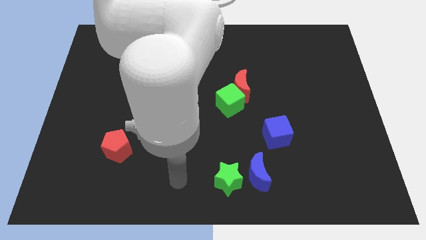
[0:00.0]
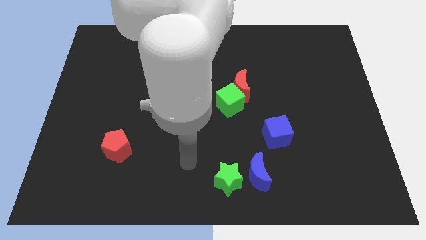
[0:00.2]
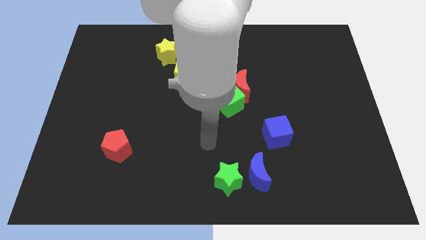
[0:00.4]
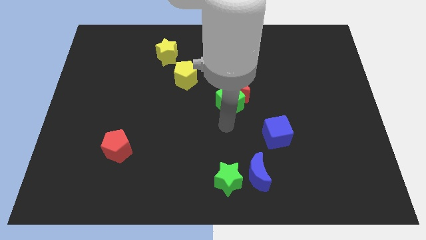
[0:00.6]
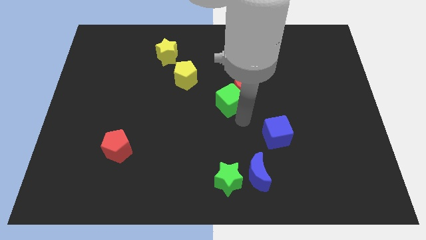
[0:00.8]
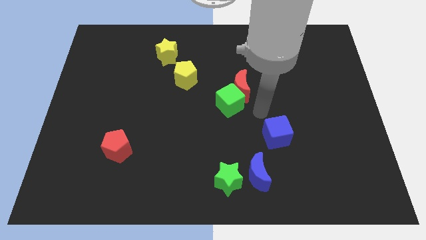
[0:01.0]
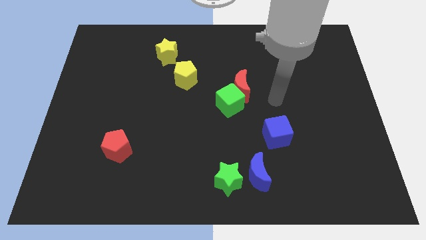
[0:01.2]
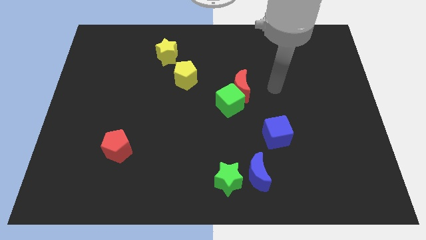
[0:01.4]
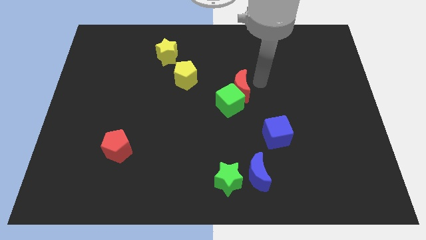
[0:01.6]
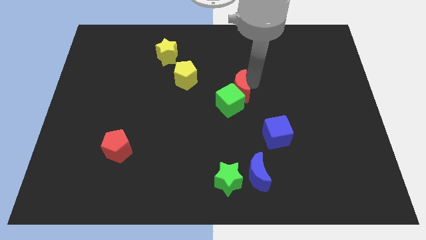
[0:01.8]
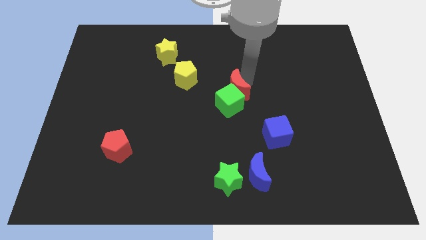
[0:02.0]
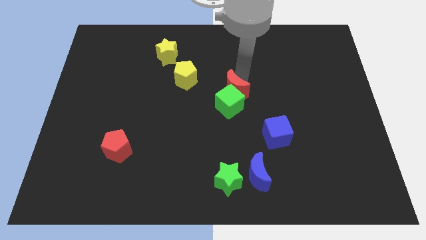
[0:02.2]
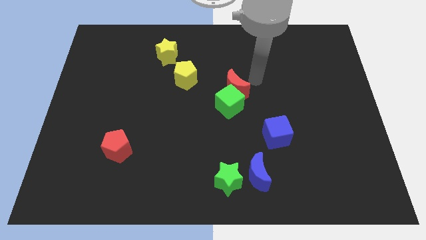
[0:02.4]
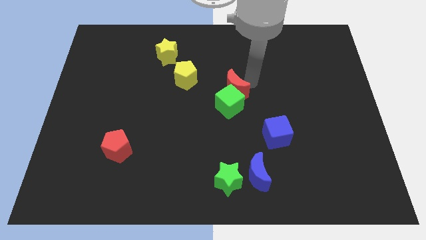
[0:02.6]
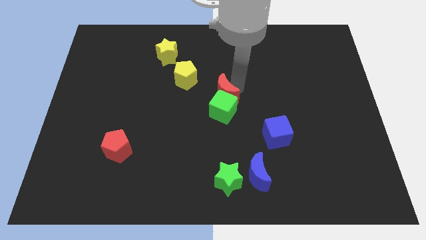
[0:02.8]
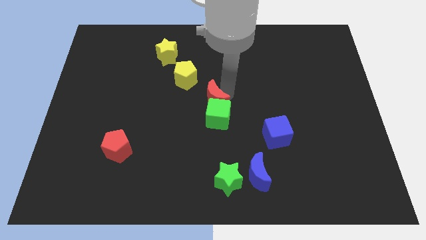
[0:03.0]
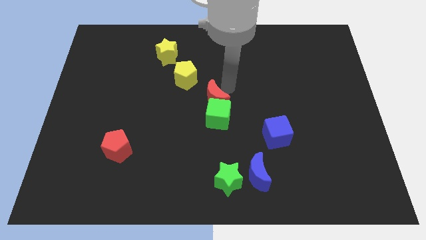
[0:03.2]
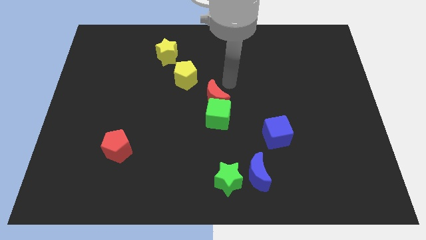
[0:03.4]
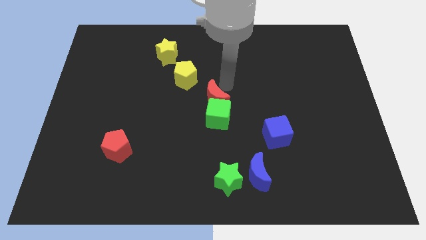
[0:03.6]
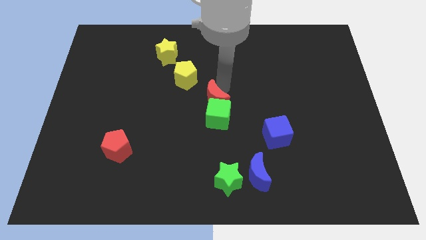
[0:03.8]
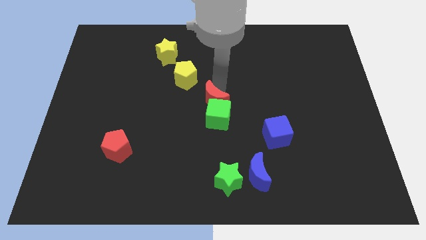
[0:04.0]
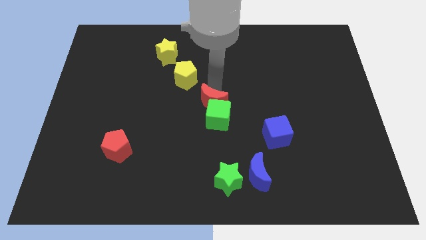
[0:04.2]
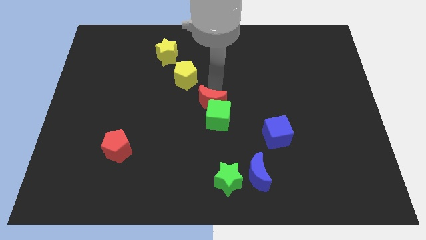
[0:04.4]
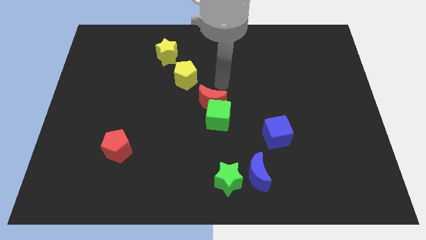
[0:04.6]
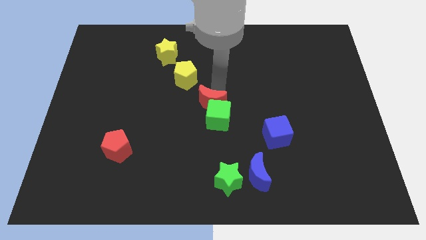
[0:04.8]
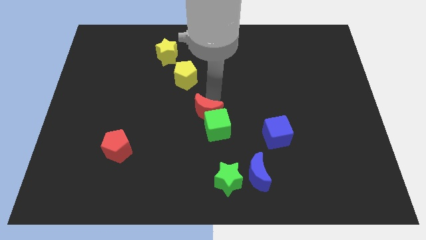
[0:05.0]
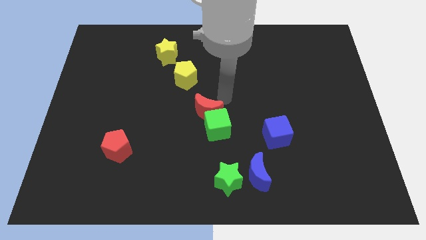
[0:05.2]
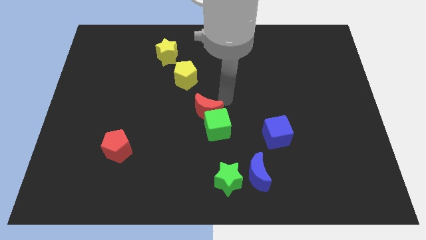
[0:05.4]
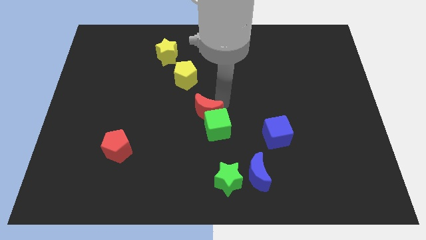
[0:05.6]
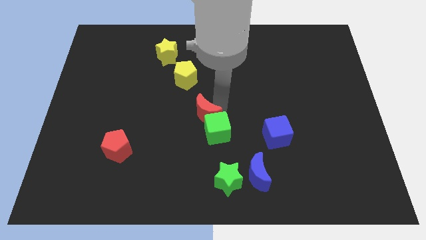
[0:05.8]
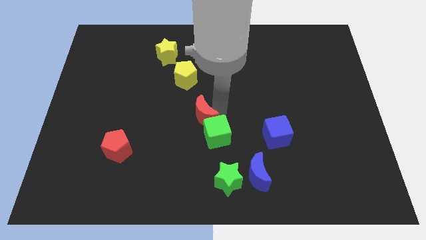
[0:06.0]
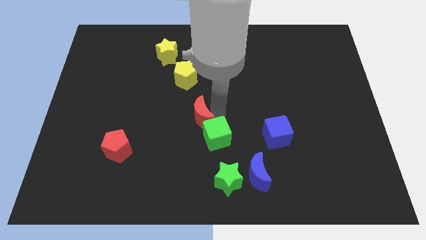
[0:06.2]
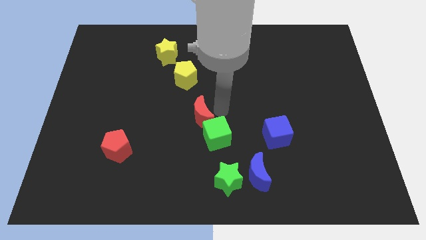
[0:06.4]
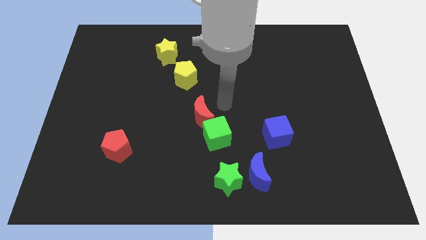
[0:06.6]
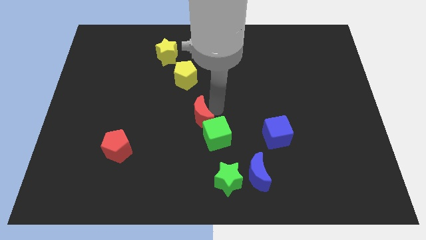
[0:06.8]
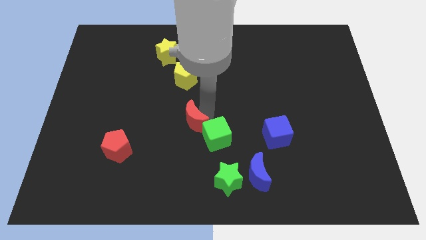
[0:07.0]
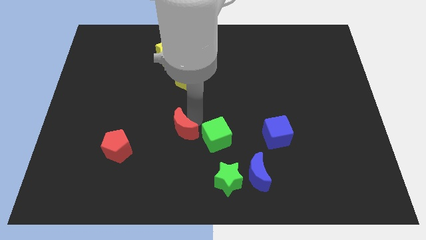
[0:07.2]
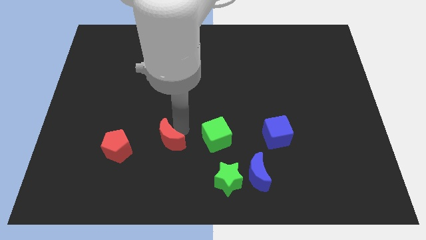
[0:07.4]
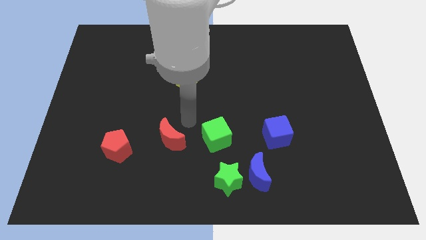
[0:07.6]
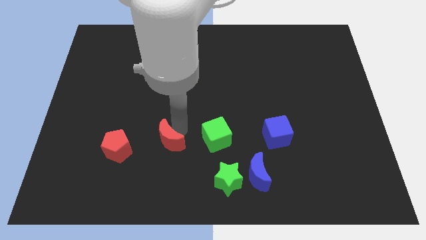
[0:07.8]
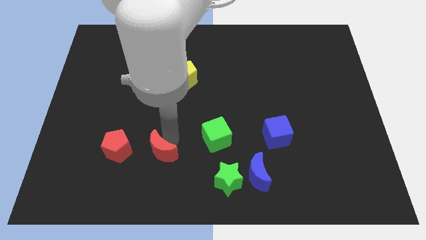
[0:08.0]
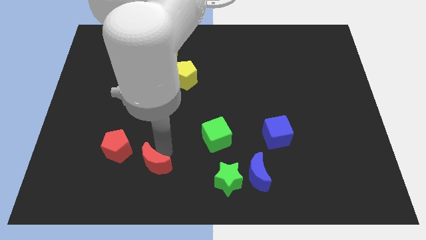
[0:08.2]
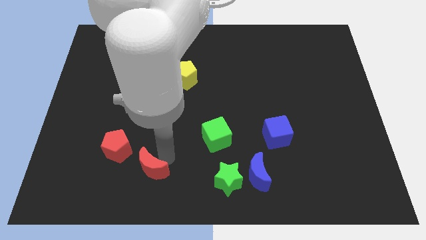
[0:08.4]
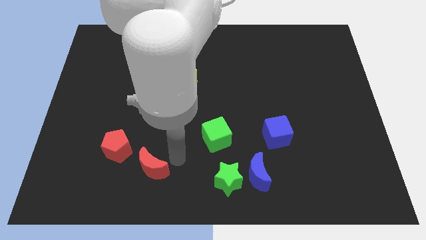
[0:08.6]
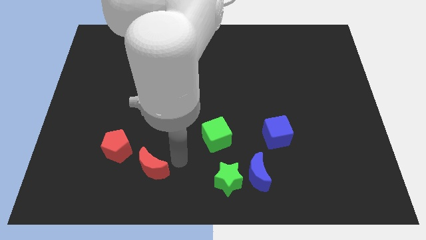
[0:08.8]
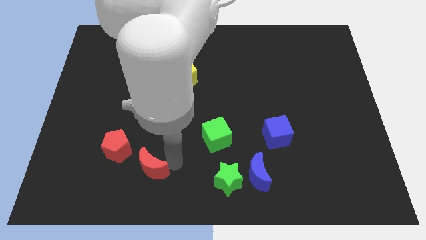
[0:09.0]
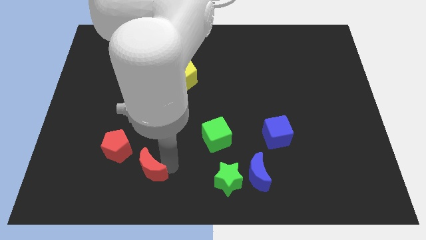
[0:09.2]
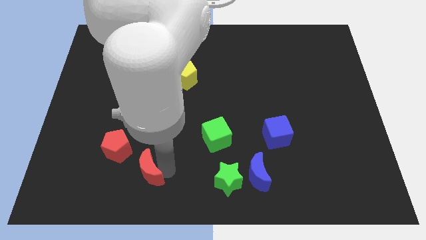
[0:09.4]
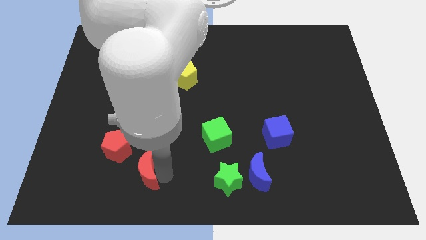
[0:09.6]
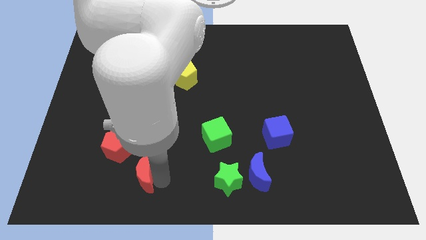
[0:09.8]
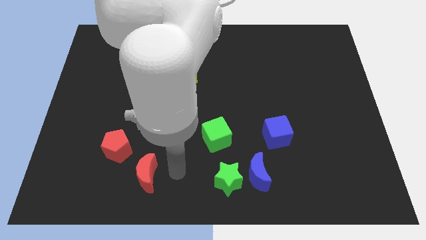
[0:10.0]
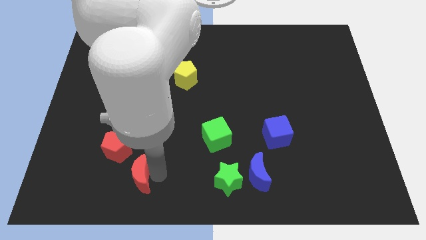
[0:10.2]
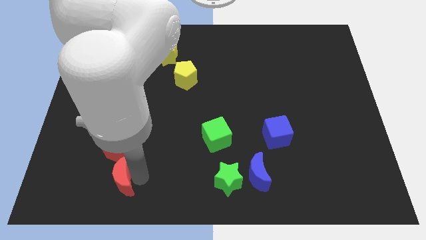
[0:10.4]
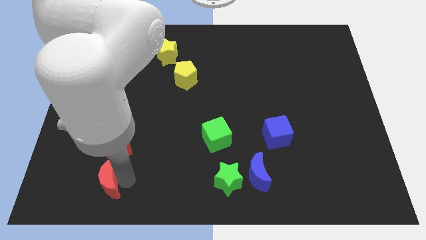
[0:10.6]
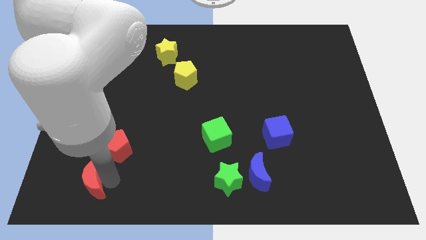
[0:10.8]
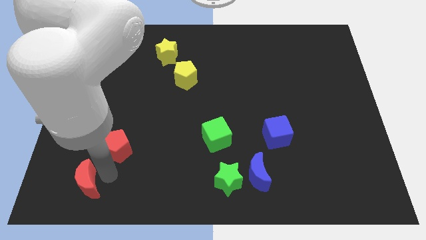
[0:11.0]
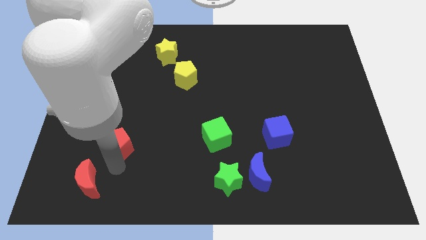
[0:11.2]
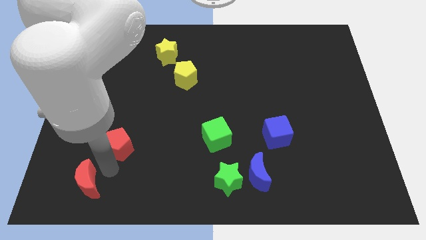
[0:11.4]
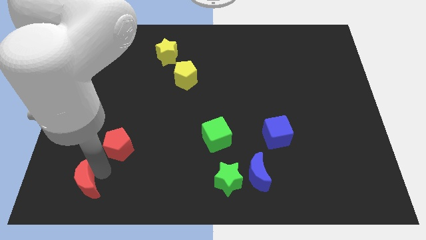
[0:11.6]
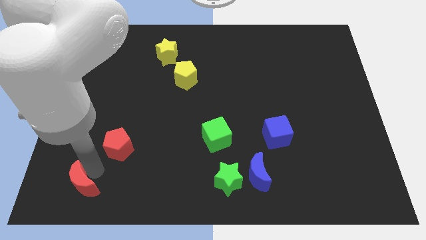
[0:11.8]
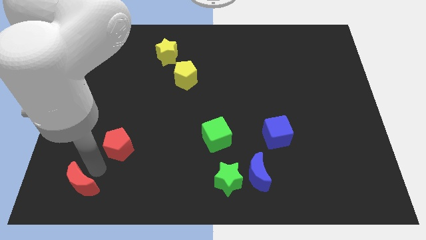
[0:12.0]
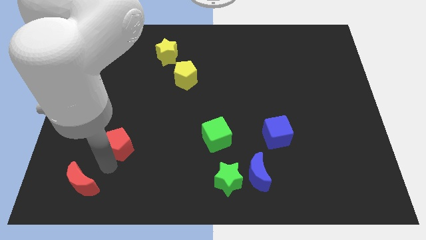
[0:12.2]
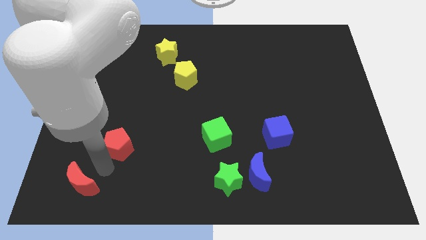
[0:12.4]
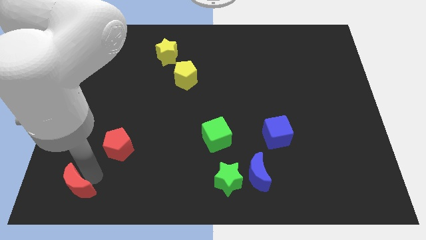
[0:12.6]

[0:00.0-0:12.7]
put the red moon to the lower left corner
